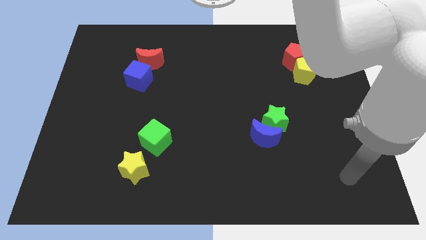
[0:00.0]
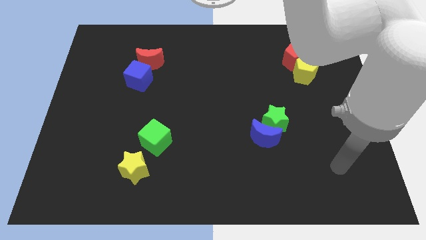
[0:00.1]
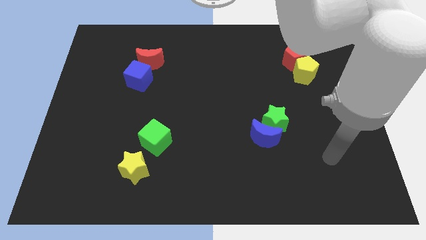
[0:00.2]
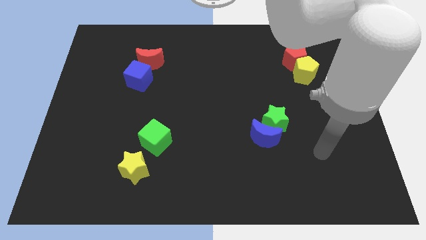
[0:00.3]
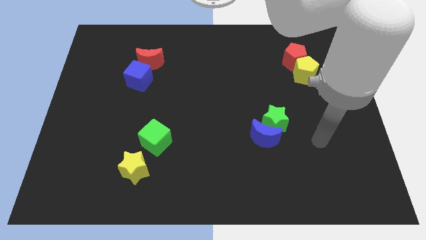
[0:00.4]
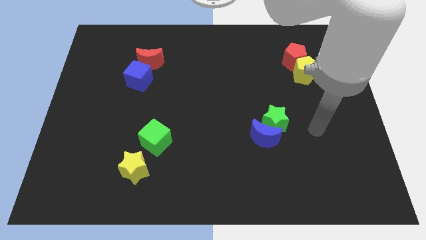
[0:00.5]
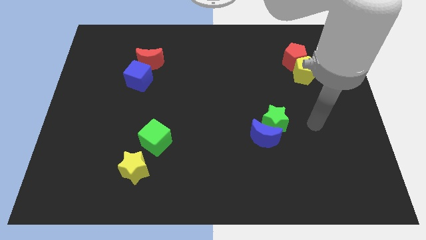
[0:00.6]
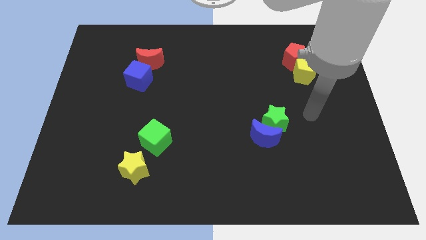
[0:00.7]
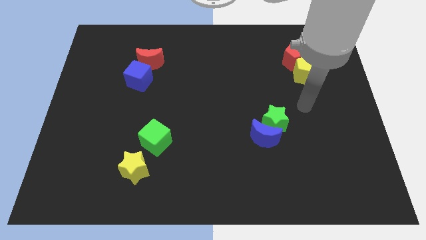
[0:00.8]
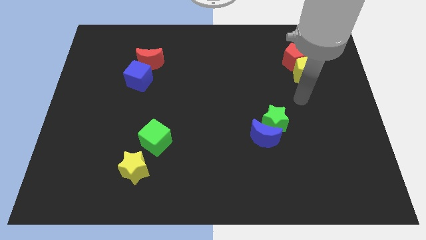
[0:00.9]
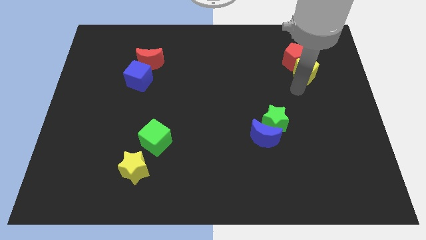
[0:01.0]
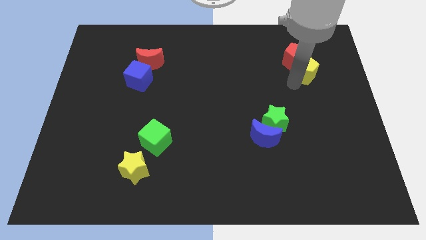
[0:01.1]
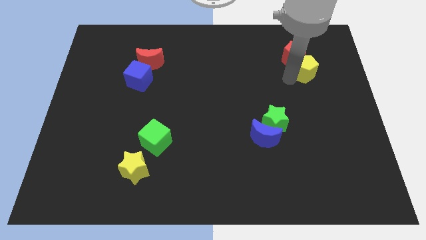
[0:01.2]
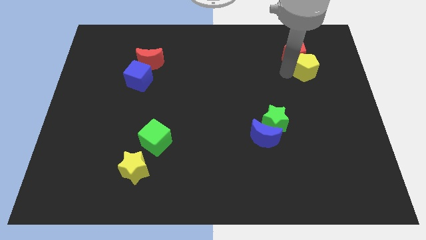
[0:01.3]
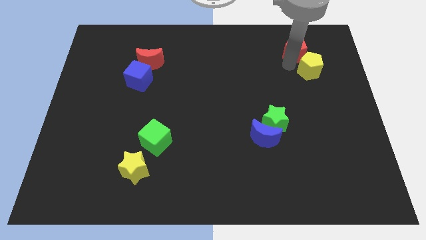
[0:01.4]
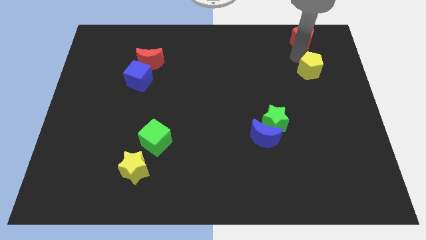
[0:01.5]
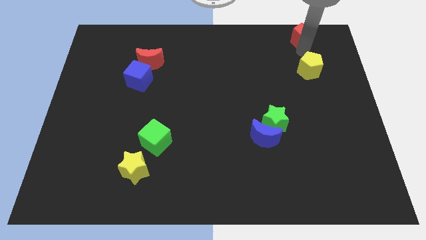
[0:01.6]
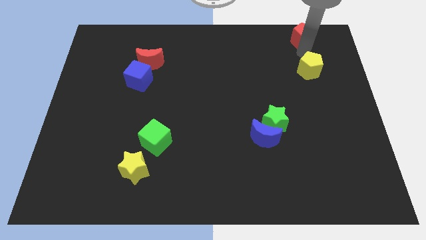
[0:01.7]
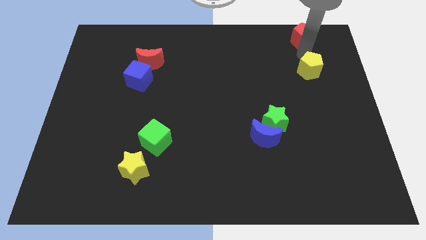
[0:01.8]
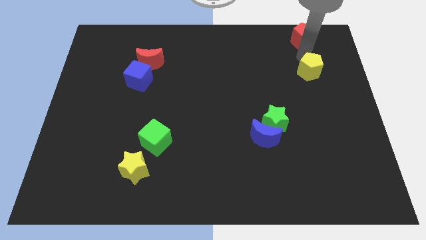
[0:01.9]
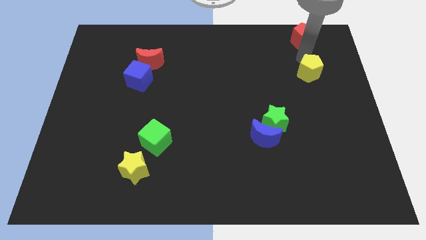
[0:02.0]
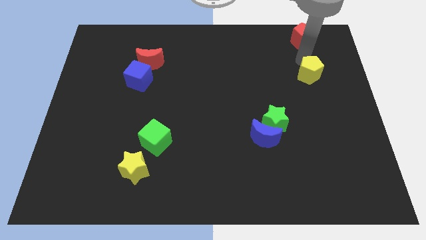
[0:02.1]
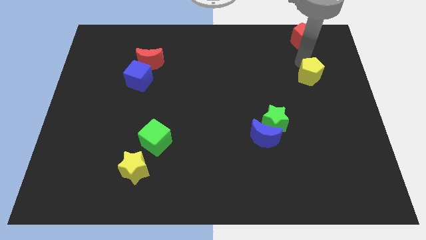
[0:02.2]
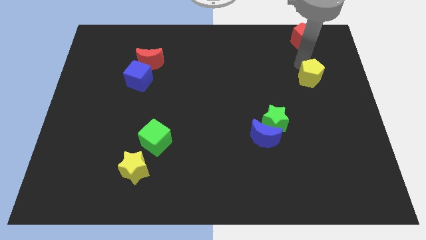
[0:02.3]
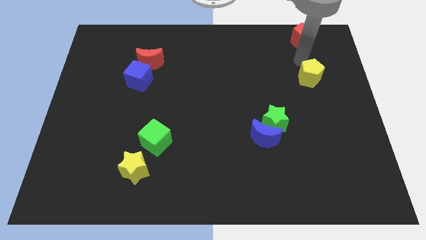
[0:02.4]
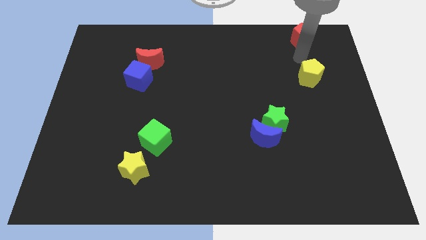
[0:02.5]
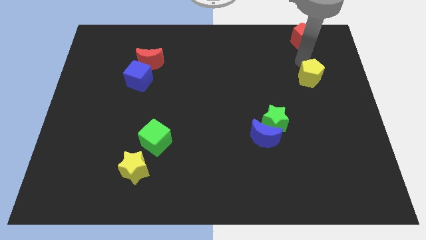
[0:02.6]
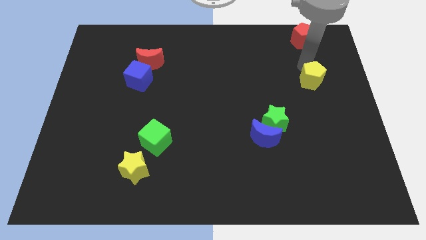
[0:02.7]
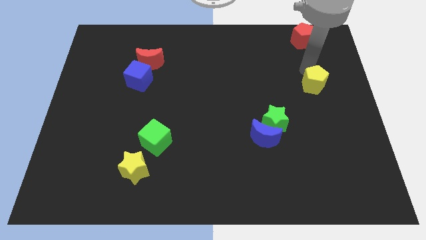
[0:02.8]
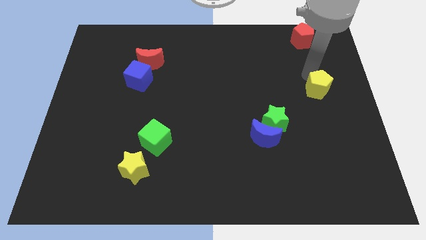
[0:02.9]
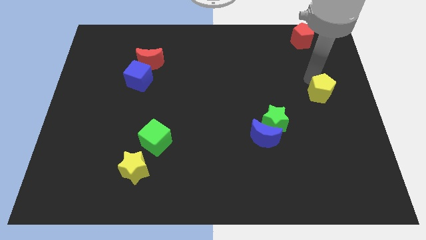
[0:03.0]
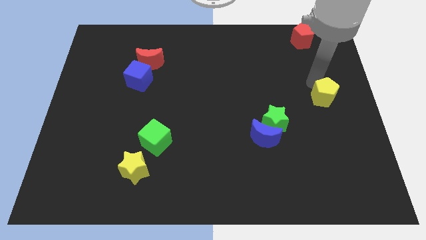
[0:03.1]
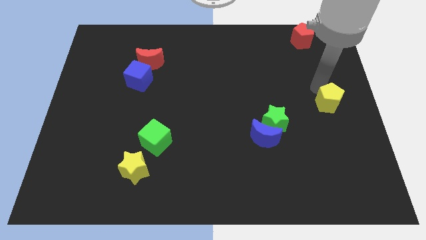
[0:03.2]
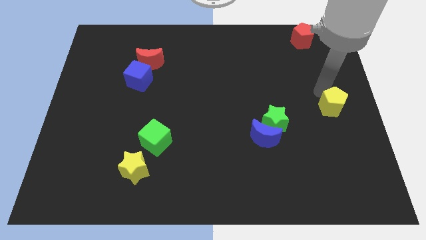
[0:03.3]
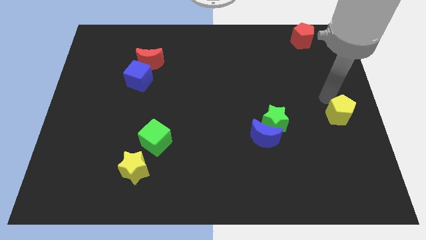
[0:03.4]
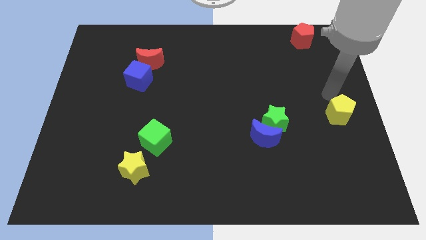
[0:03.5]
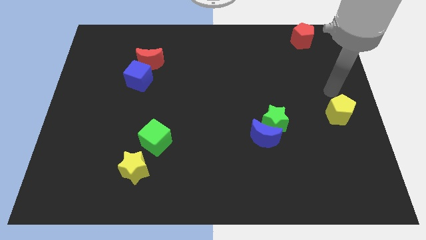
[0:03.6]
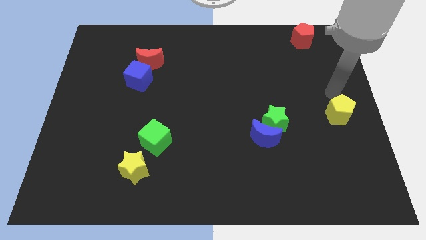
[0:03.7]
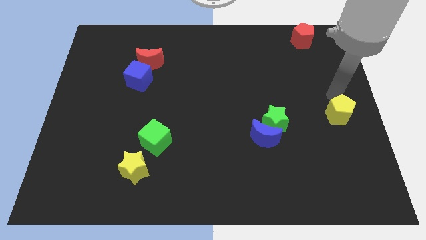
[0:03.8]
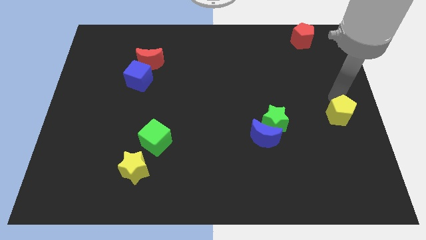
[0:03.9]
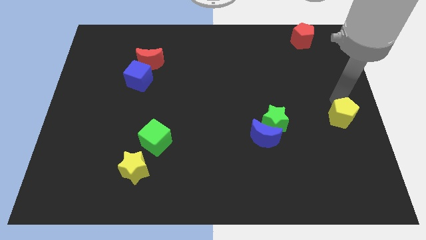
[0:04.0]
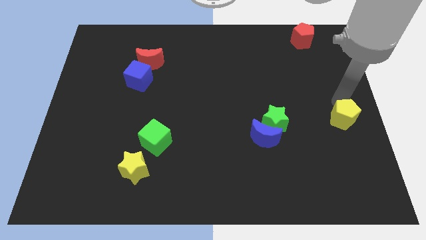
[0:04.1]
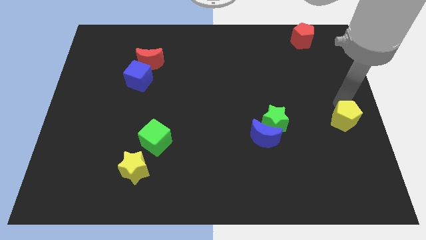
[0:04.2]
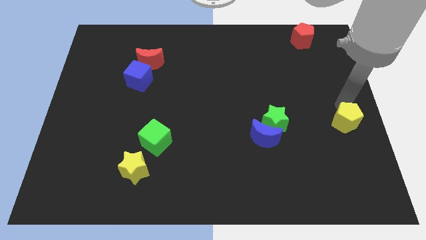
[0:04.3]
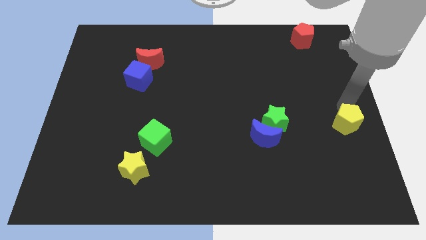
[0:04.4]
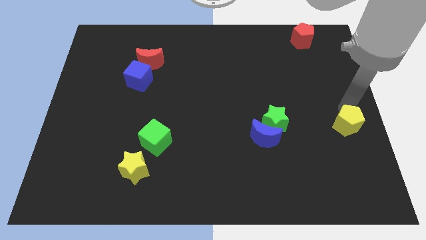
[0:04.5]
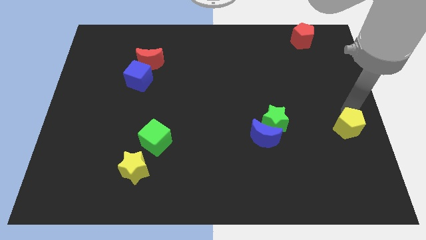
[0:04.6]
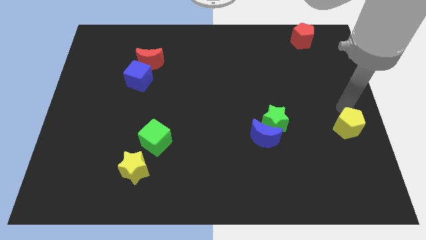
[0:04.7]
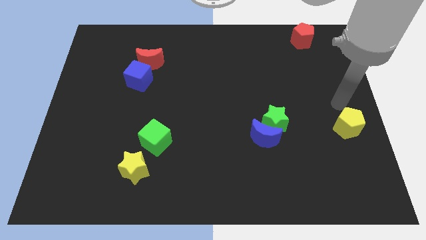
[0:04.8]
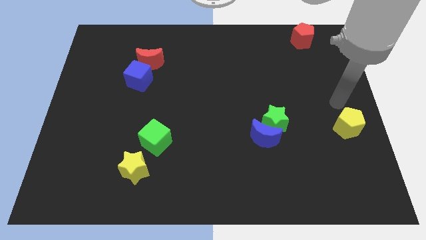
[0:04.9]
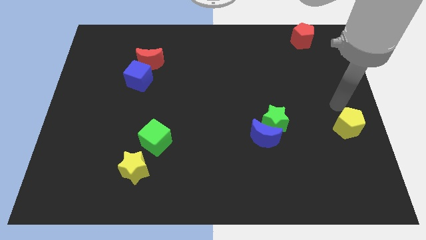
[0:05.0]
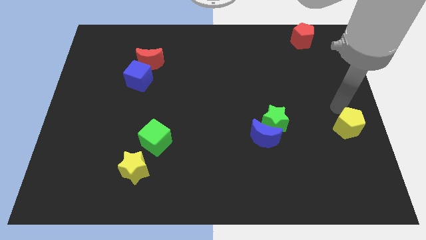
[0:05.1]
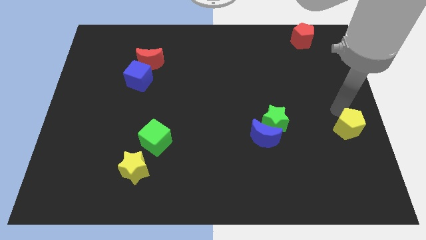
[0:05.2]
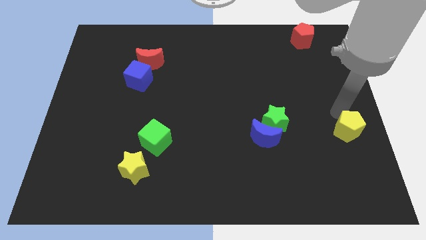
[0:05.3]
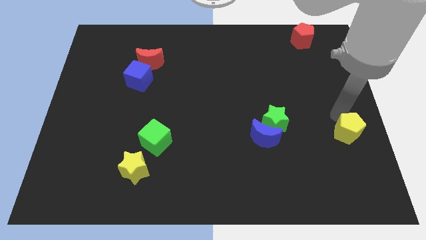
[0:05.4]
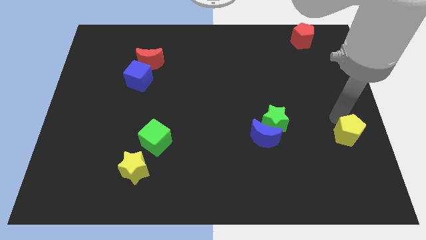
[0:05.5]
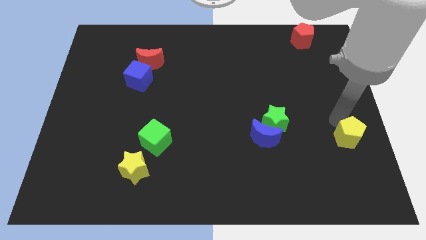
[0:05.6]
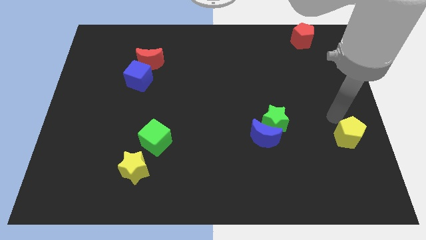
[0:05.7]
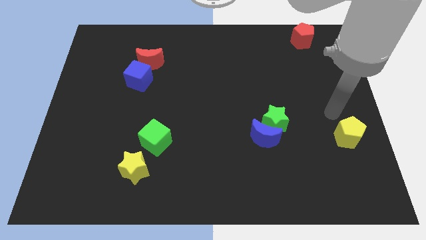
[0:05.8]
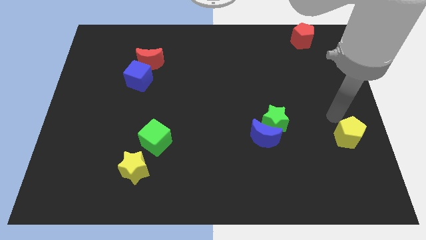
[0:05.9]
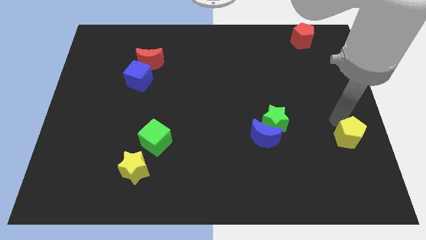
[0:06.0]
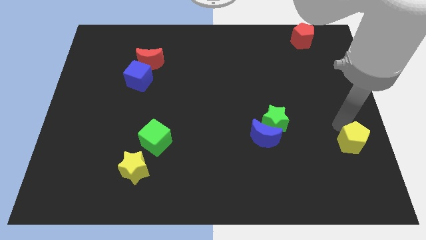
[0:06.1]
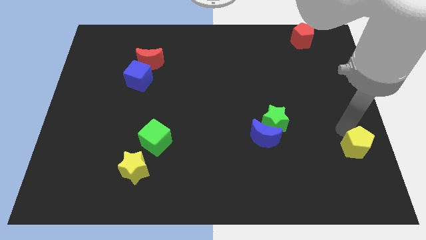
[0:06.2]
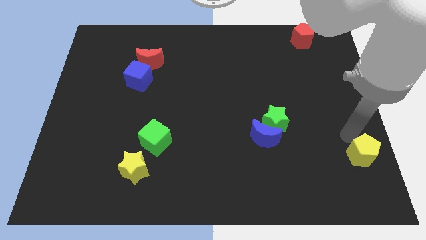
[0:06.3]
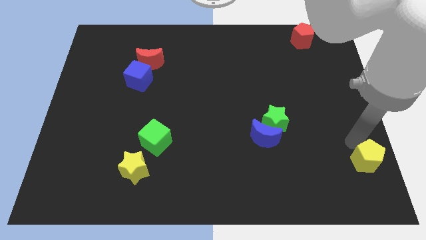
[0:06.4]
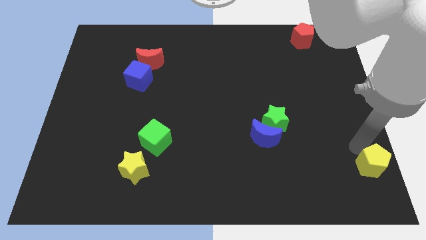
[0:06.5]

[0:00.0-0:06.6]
slide the yellow pentagon to the bottom right corner

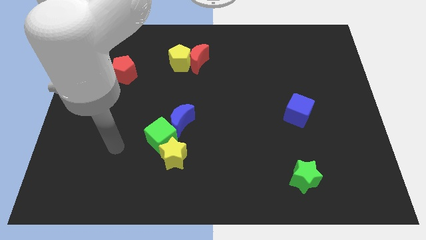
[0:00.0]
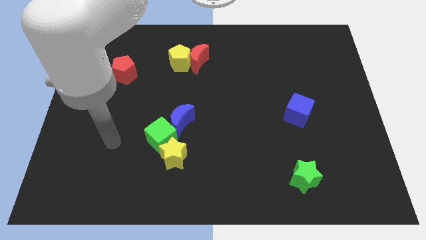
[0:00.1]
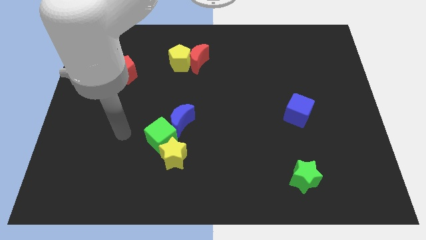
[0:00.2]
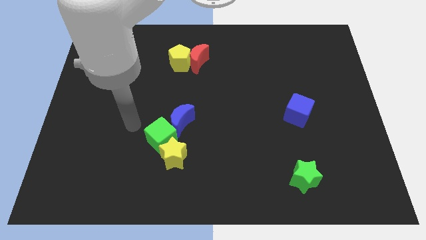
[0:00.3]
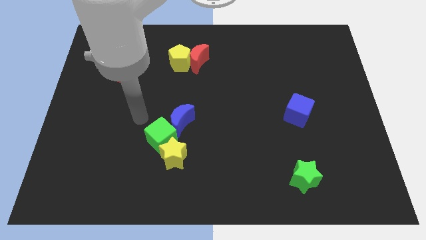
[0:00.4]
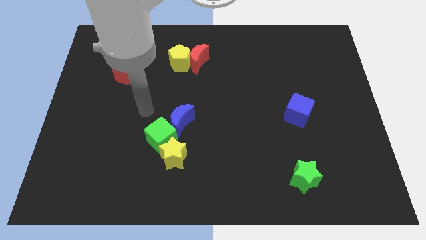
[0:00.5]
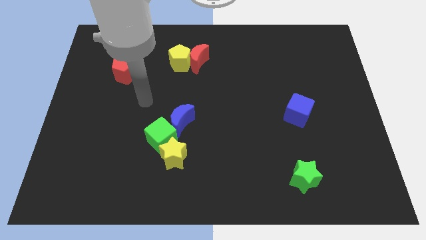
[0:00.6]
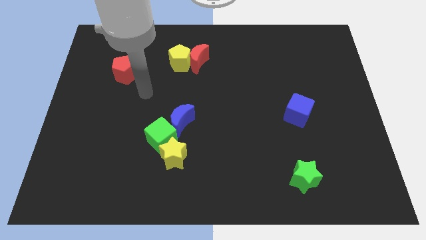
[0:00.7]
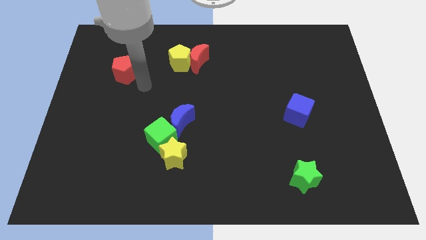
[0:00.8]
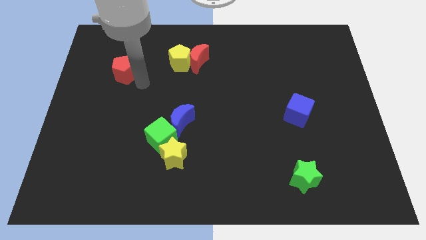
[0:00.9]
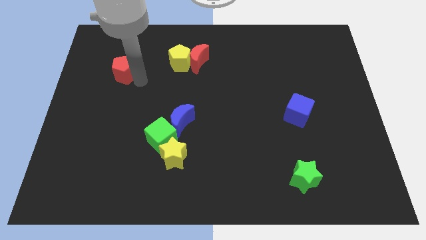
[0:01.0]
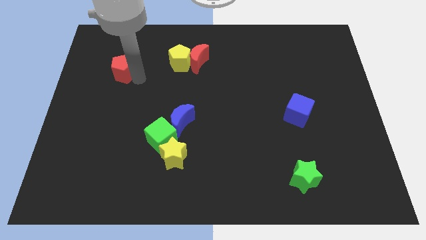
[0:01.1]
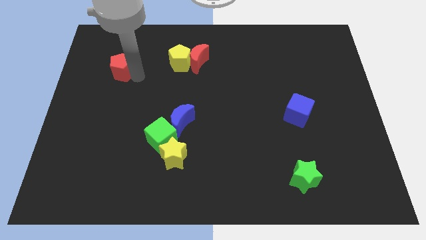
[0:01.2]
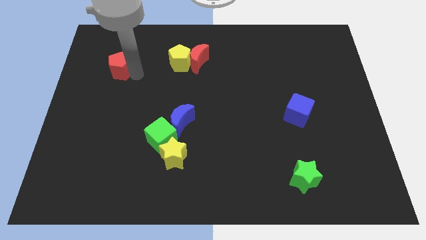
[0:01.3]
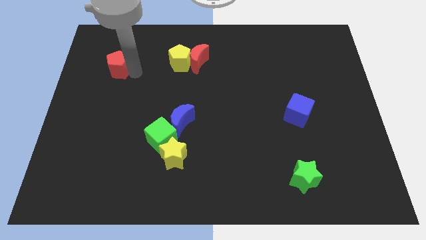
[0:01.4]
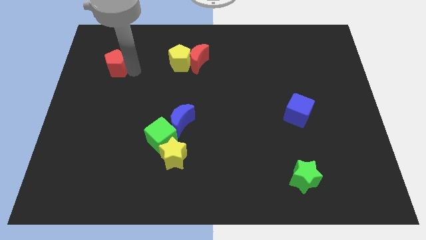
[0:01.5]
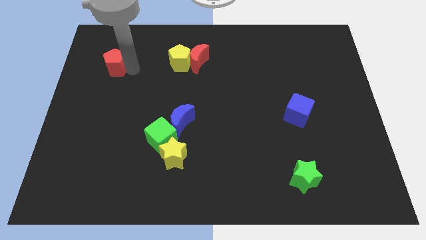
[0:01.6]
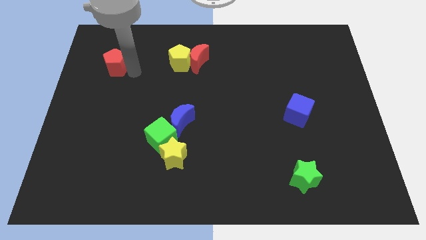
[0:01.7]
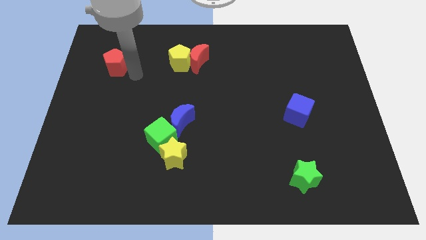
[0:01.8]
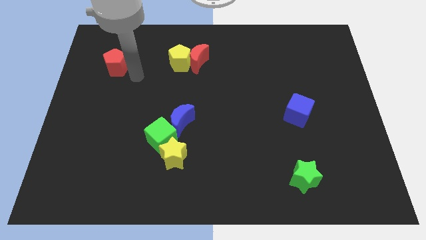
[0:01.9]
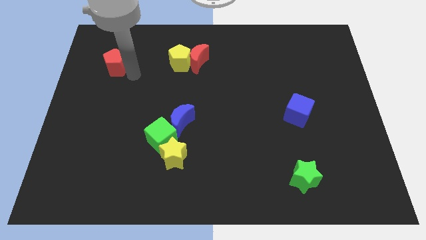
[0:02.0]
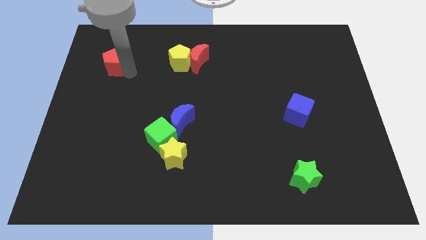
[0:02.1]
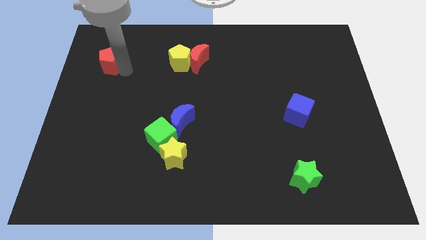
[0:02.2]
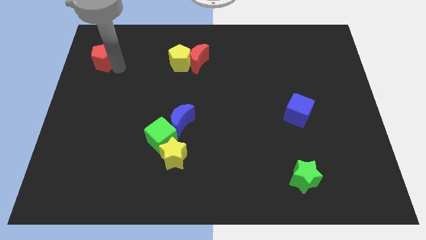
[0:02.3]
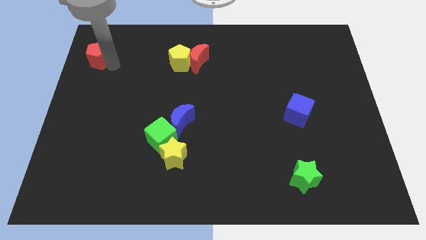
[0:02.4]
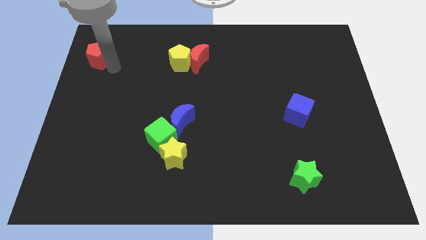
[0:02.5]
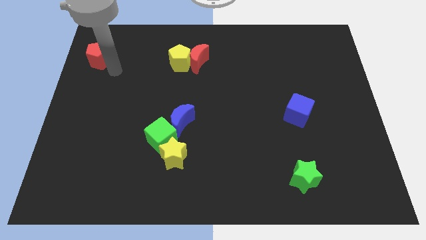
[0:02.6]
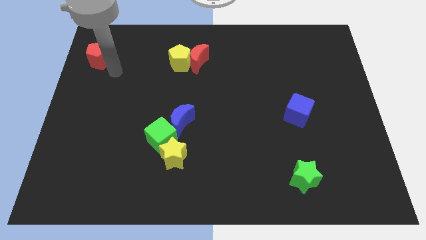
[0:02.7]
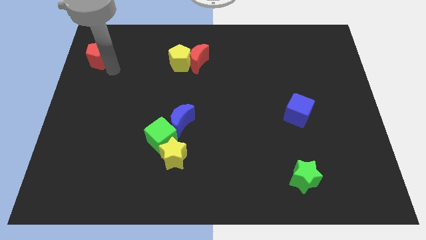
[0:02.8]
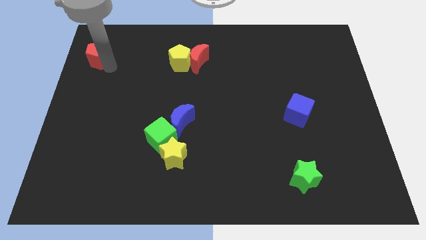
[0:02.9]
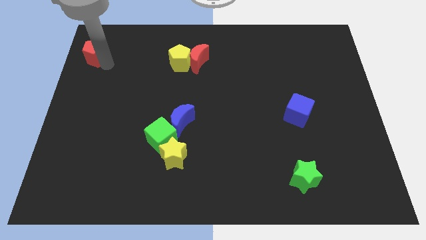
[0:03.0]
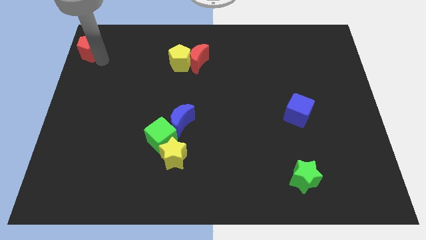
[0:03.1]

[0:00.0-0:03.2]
move the red pentagon to the top left of the board
